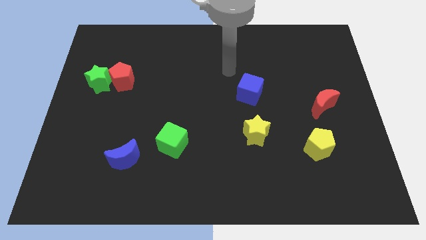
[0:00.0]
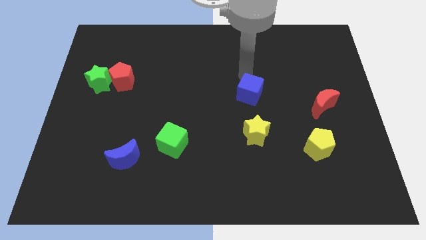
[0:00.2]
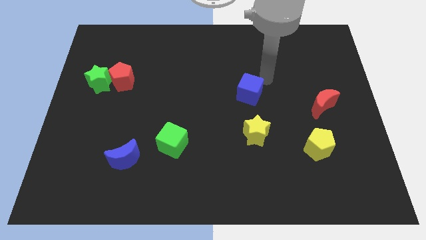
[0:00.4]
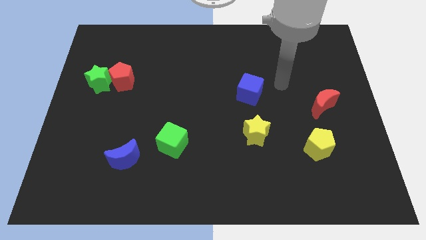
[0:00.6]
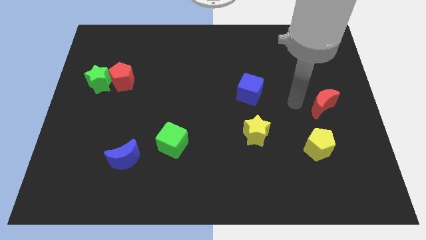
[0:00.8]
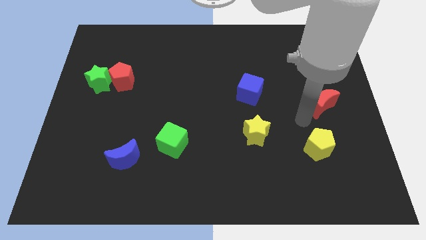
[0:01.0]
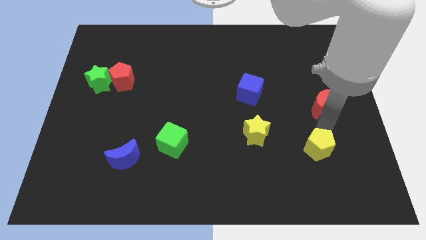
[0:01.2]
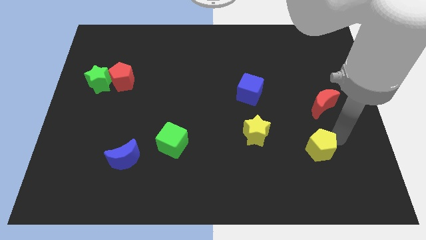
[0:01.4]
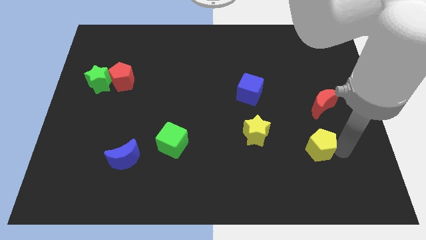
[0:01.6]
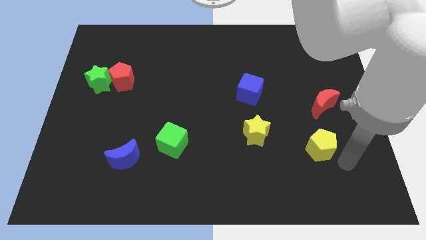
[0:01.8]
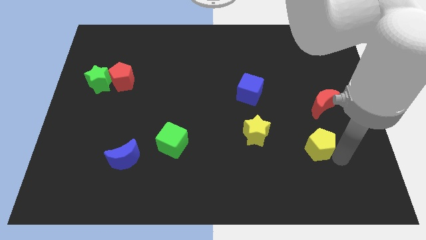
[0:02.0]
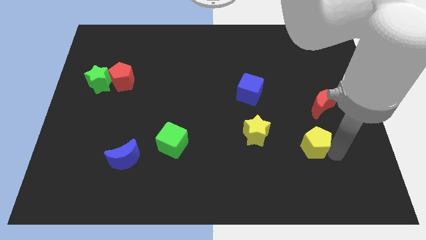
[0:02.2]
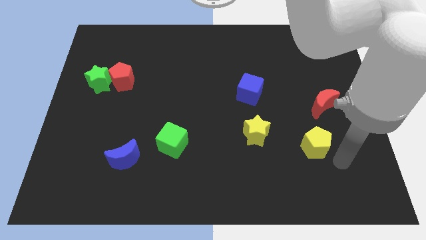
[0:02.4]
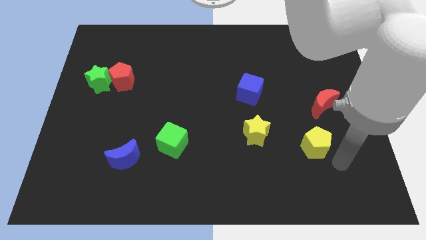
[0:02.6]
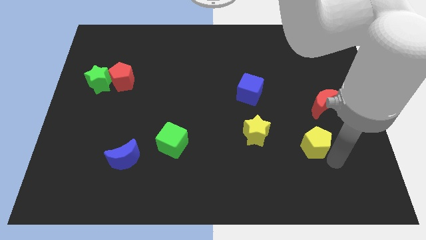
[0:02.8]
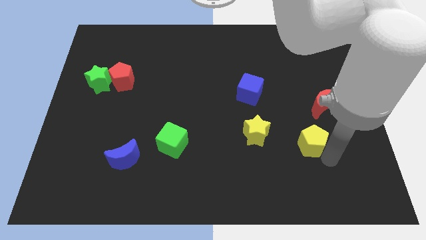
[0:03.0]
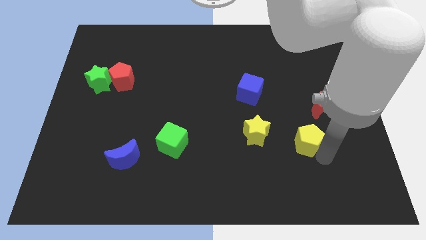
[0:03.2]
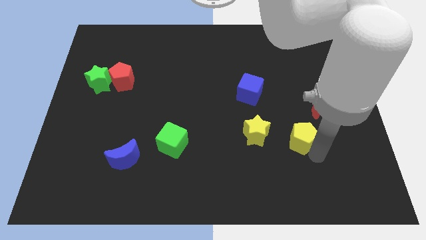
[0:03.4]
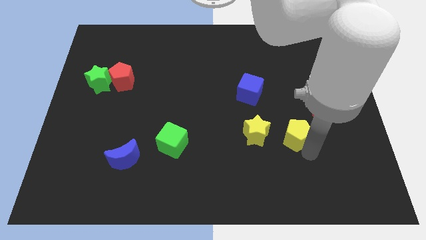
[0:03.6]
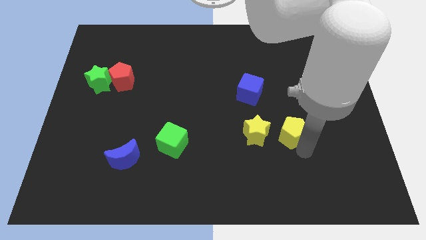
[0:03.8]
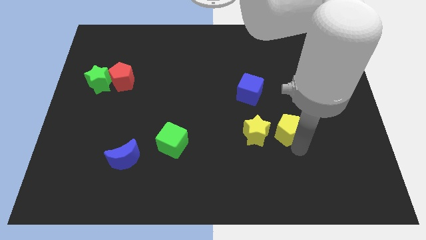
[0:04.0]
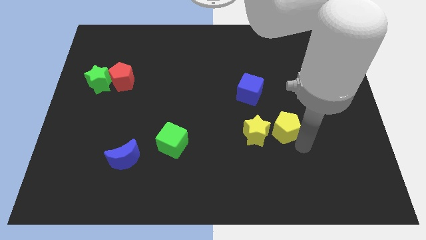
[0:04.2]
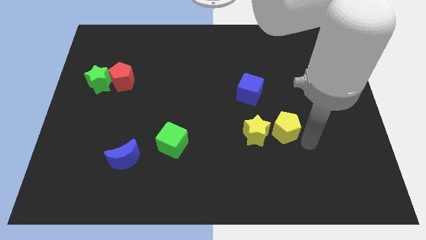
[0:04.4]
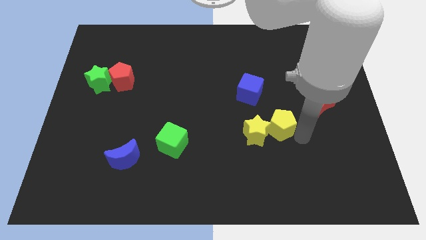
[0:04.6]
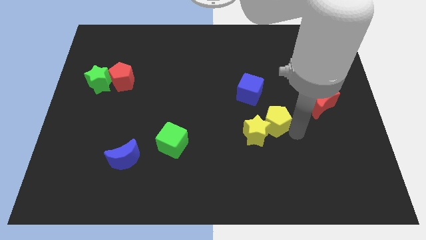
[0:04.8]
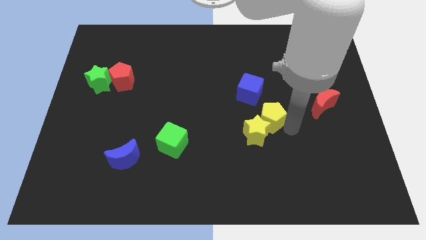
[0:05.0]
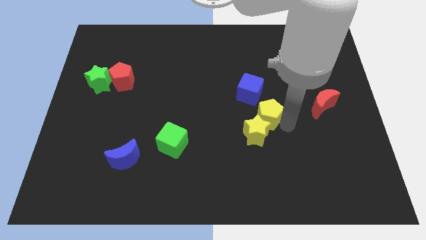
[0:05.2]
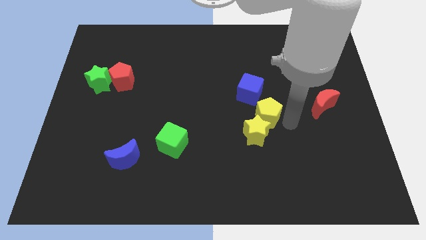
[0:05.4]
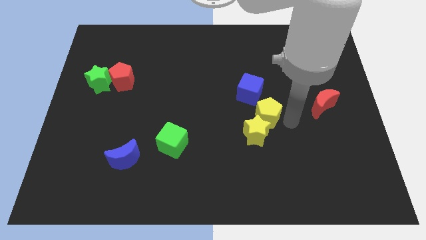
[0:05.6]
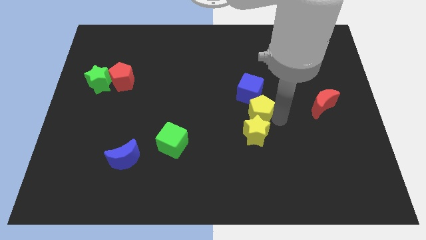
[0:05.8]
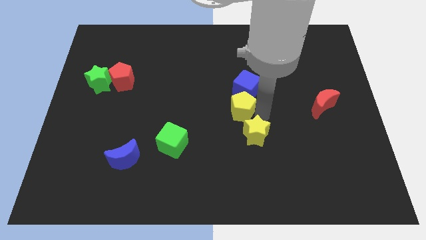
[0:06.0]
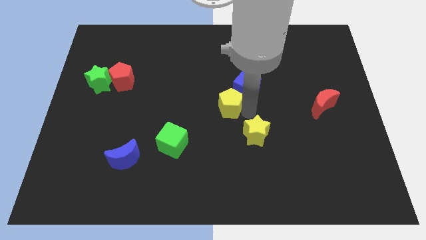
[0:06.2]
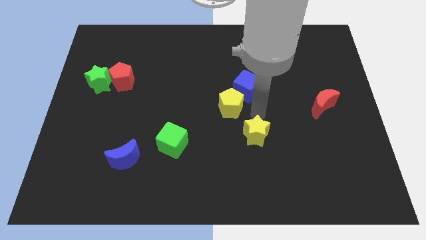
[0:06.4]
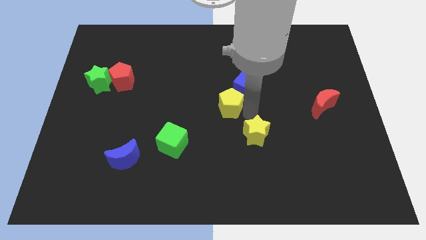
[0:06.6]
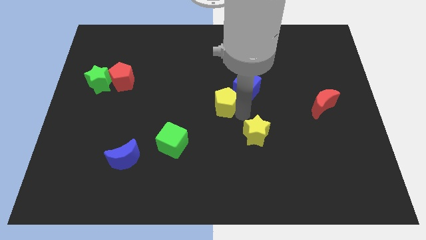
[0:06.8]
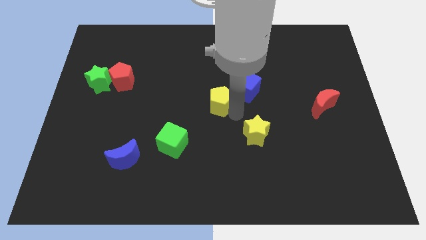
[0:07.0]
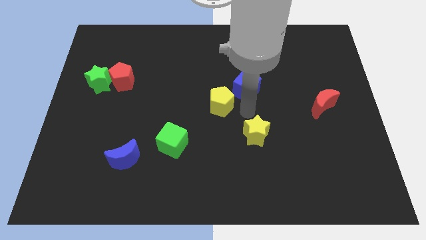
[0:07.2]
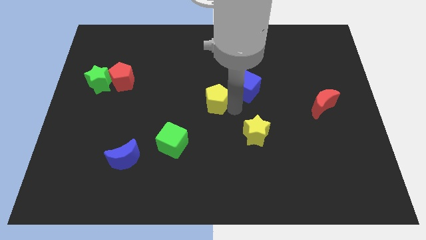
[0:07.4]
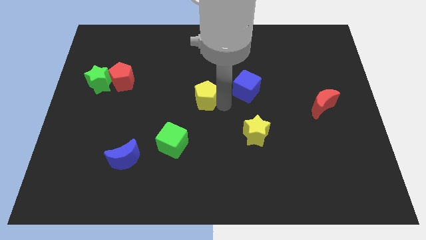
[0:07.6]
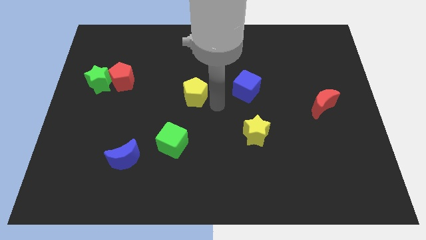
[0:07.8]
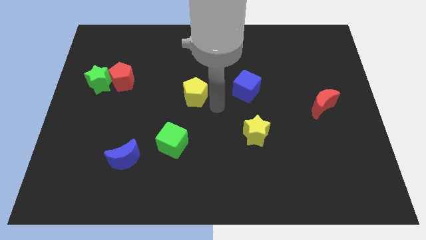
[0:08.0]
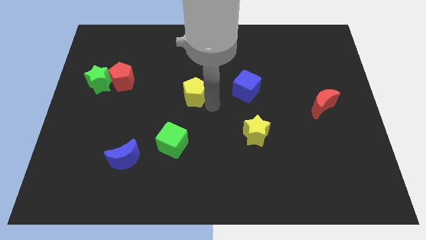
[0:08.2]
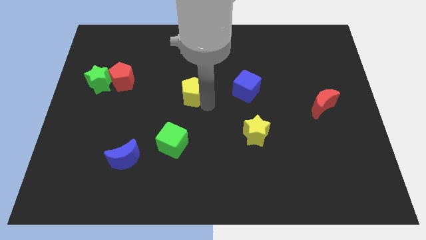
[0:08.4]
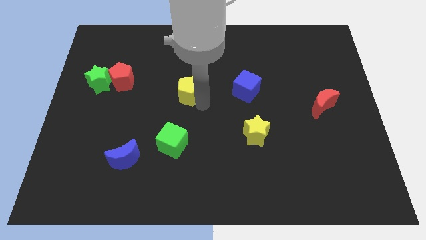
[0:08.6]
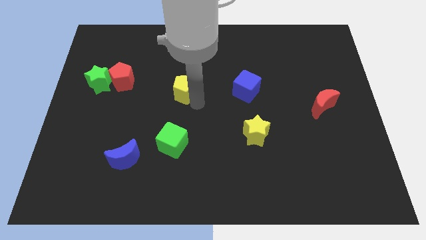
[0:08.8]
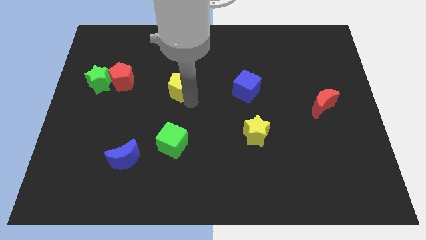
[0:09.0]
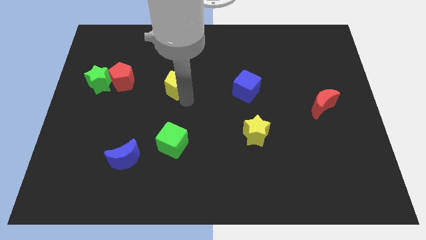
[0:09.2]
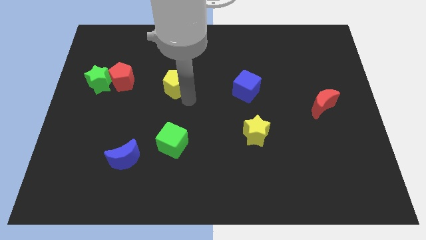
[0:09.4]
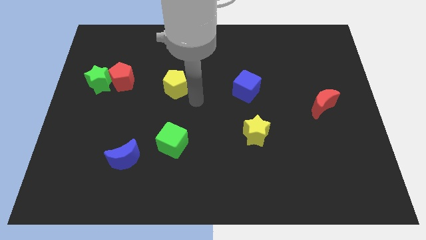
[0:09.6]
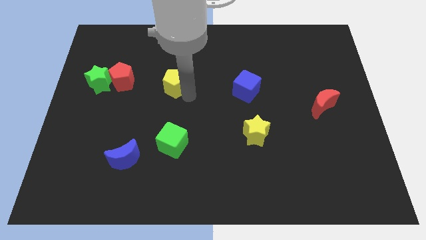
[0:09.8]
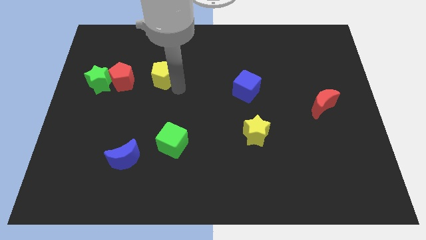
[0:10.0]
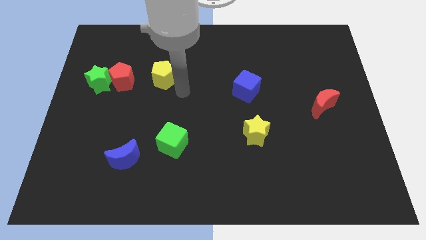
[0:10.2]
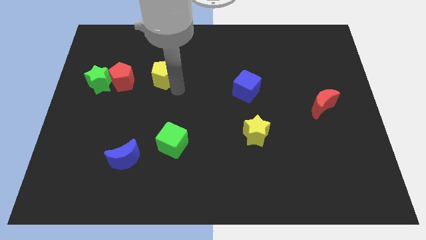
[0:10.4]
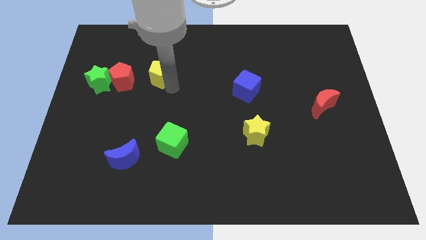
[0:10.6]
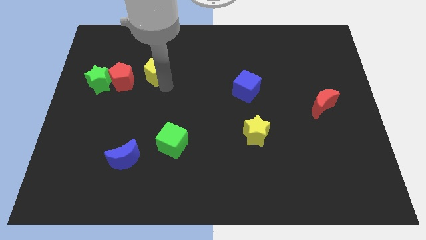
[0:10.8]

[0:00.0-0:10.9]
move the yellow pentagon to the top right side of the red pentagon

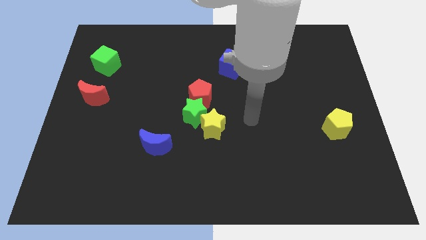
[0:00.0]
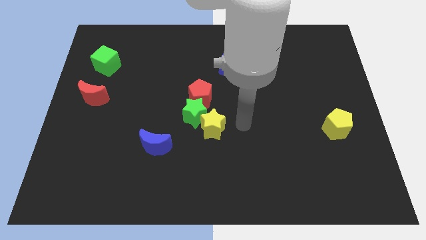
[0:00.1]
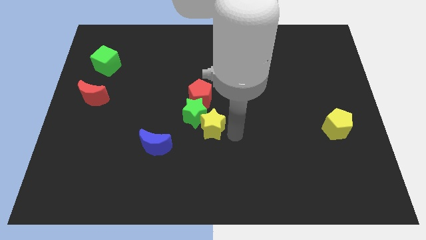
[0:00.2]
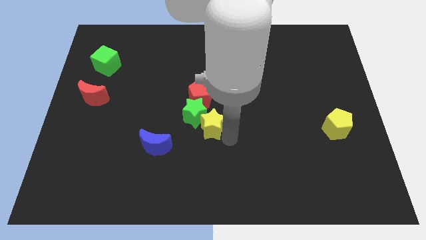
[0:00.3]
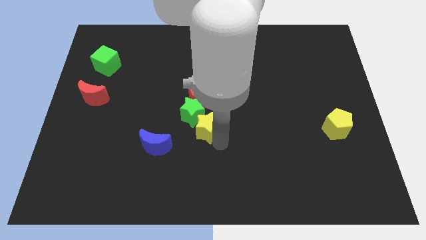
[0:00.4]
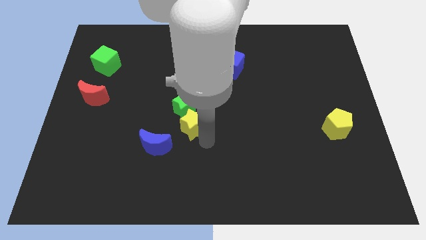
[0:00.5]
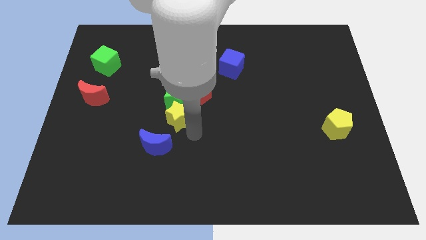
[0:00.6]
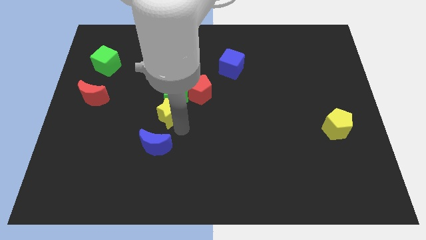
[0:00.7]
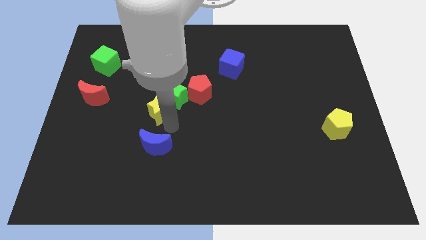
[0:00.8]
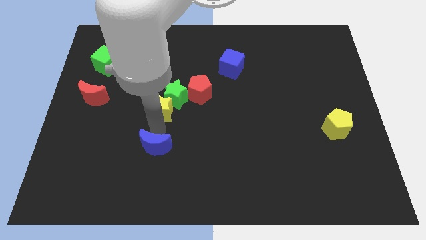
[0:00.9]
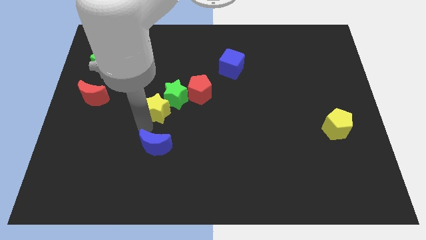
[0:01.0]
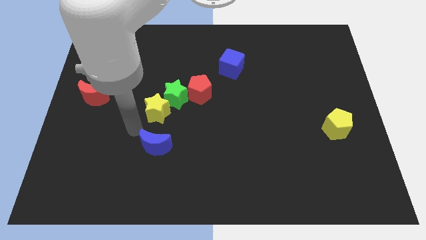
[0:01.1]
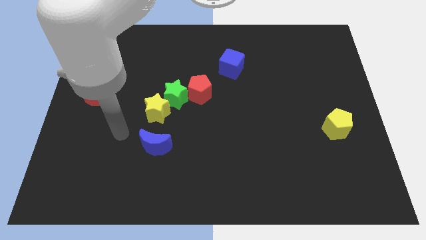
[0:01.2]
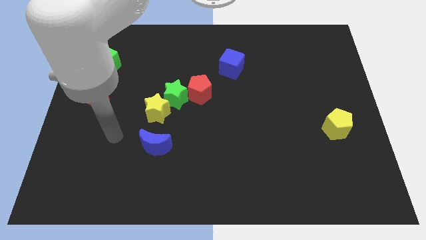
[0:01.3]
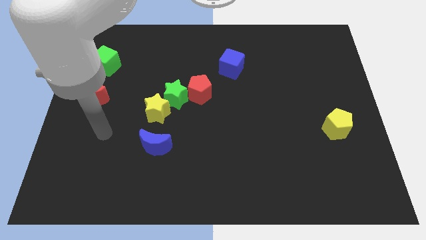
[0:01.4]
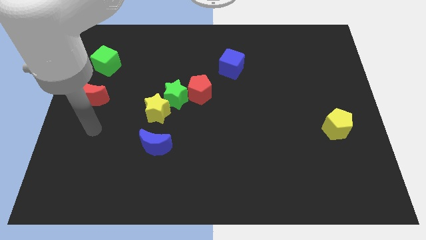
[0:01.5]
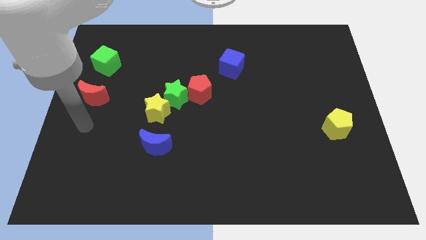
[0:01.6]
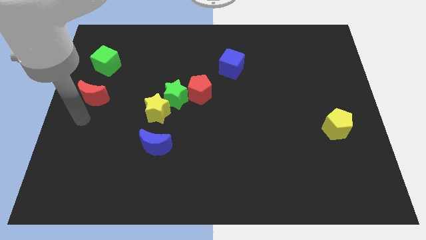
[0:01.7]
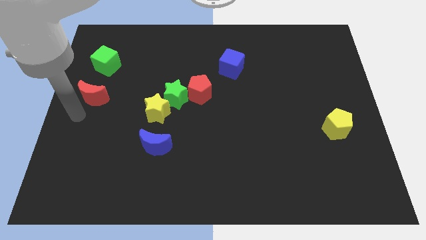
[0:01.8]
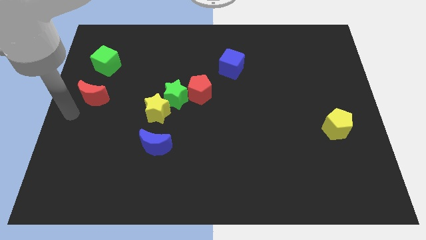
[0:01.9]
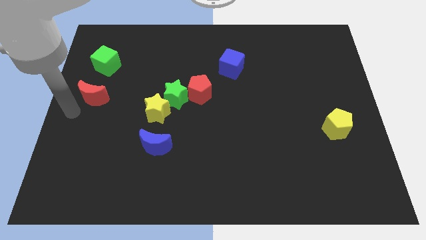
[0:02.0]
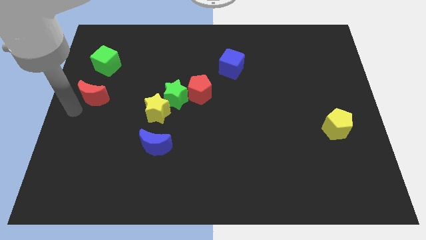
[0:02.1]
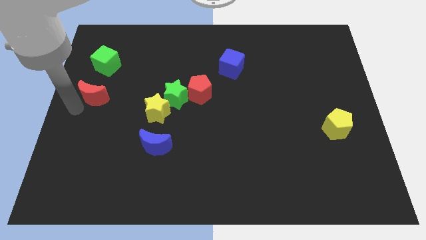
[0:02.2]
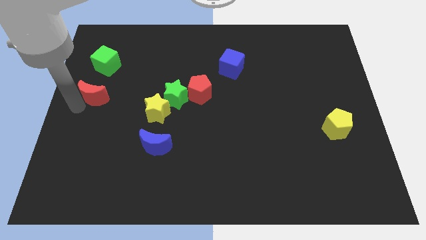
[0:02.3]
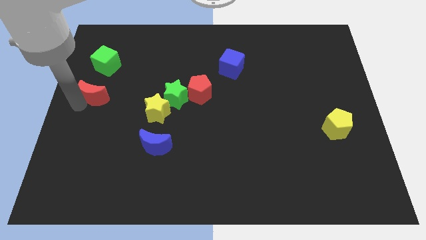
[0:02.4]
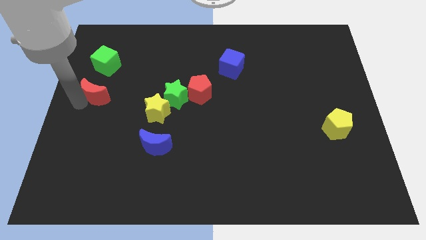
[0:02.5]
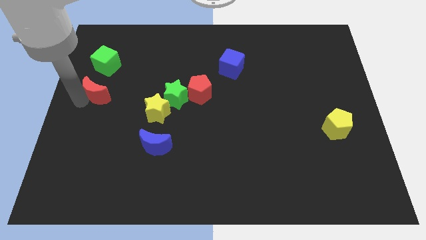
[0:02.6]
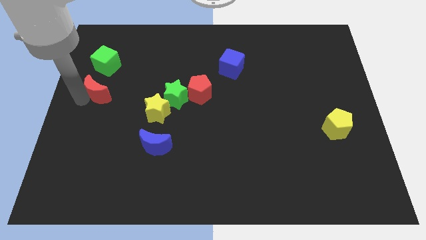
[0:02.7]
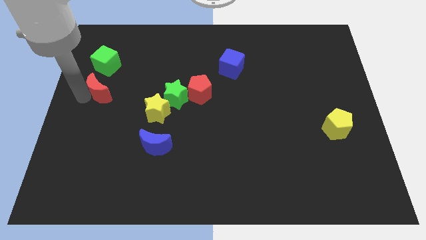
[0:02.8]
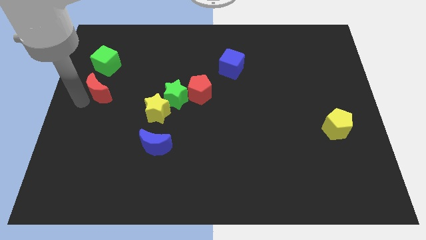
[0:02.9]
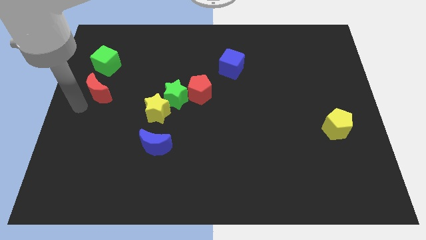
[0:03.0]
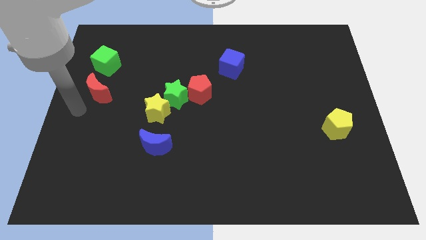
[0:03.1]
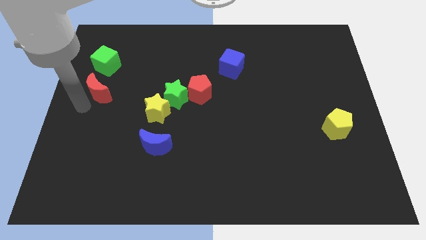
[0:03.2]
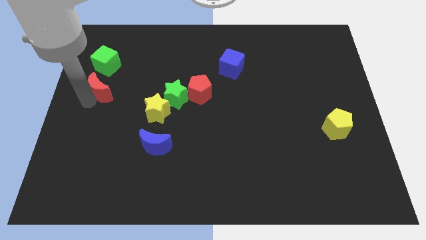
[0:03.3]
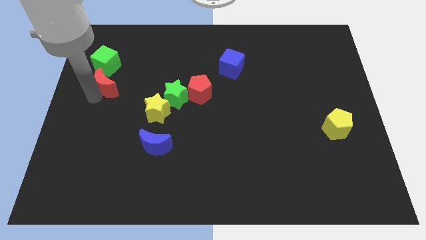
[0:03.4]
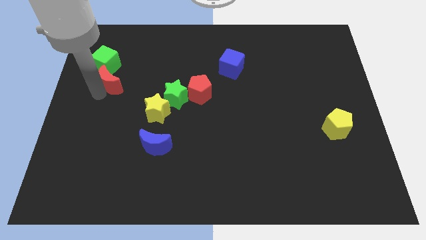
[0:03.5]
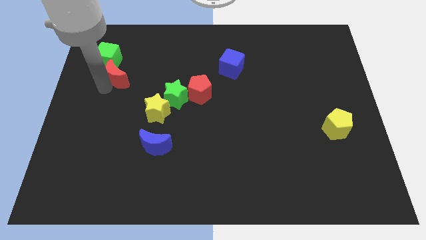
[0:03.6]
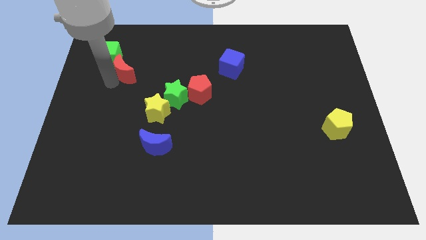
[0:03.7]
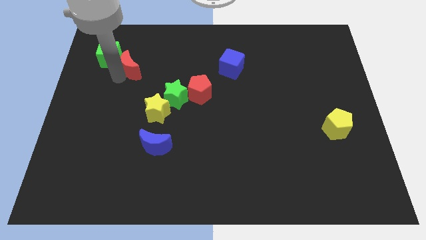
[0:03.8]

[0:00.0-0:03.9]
put the red moon just right of the green cube
